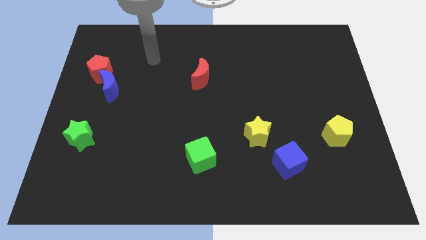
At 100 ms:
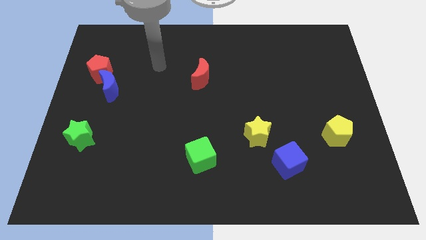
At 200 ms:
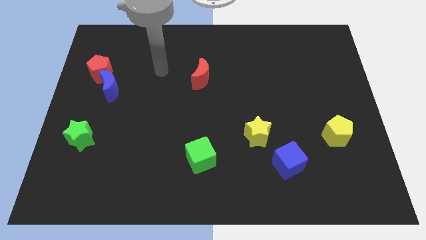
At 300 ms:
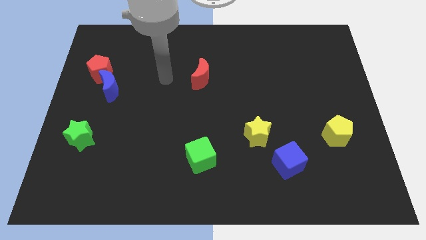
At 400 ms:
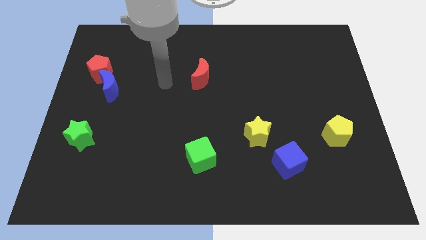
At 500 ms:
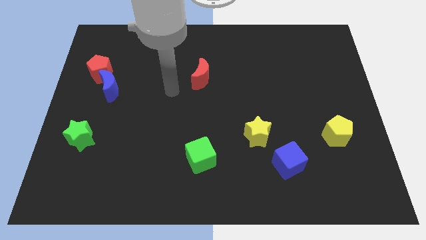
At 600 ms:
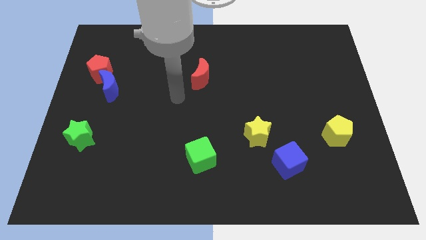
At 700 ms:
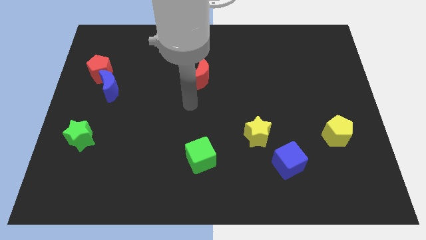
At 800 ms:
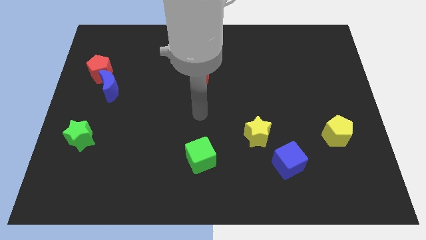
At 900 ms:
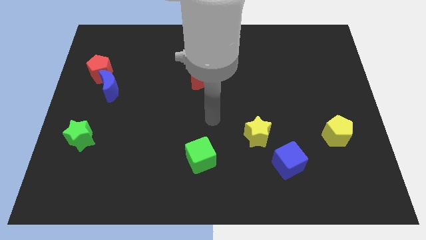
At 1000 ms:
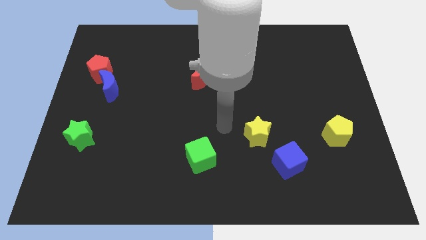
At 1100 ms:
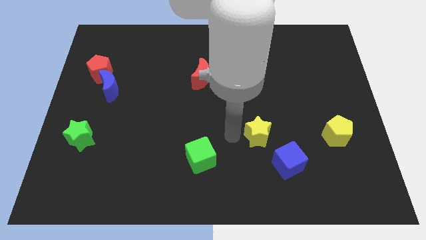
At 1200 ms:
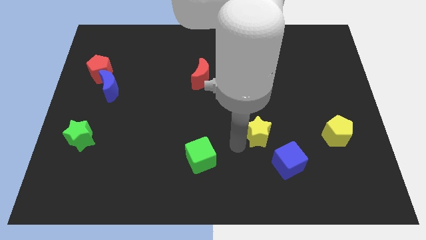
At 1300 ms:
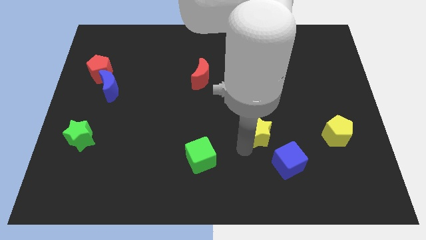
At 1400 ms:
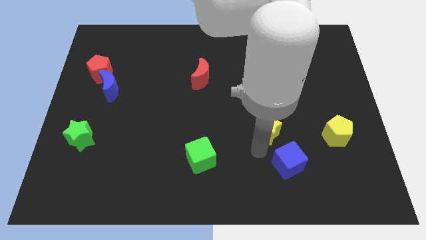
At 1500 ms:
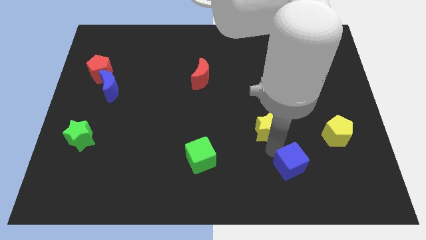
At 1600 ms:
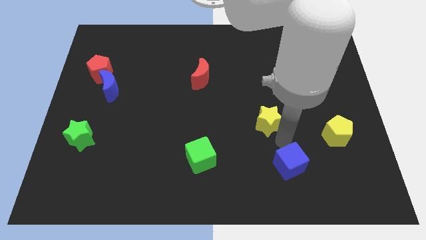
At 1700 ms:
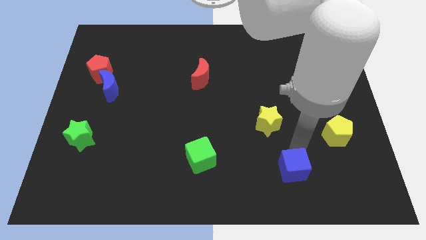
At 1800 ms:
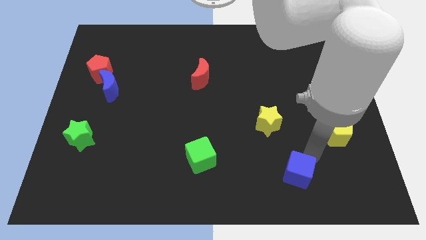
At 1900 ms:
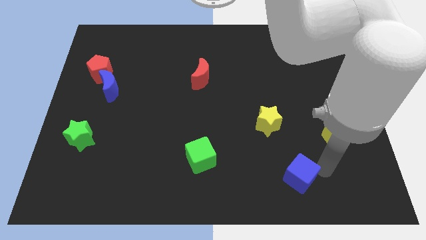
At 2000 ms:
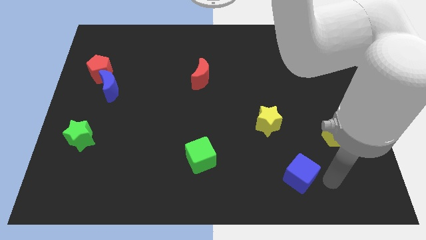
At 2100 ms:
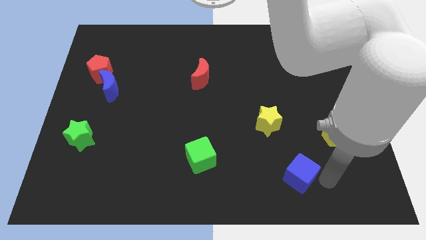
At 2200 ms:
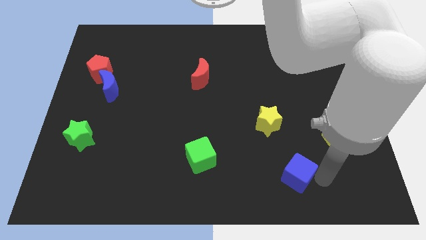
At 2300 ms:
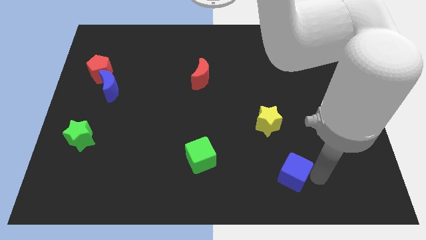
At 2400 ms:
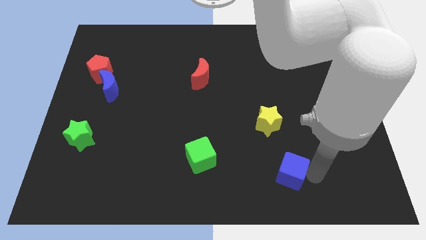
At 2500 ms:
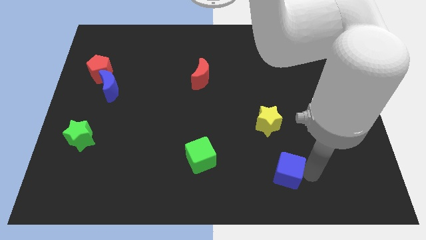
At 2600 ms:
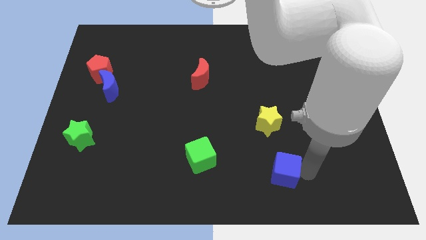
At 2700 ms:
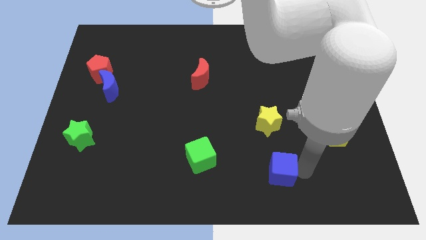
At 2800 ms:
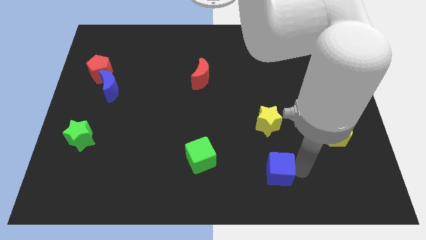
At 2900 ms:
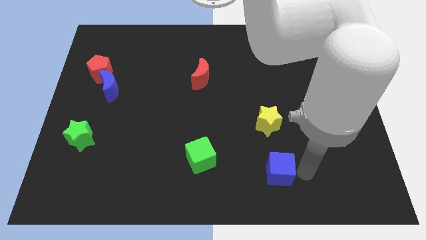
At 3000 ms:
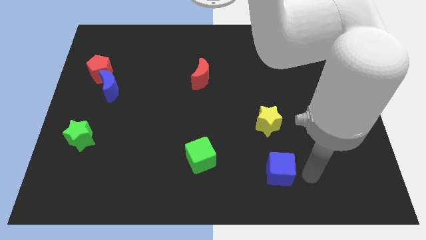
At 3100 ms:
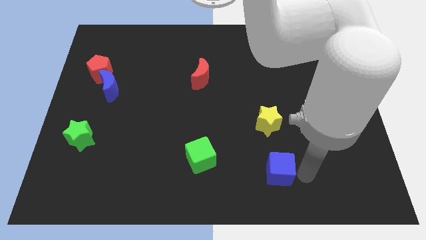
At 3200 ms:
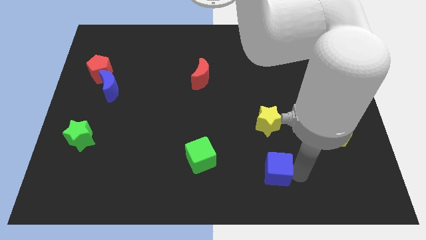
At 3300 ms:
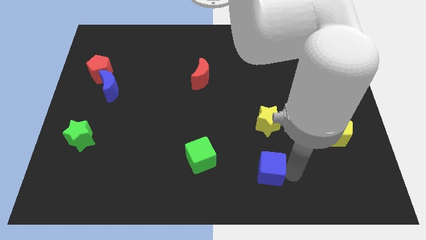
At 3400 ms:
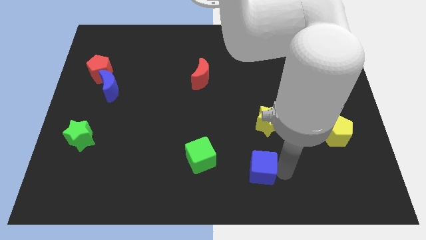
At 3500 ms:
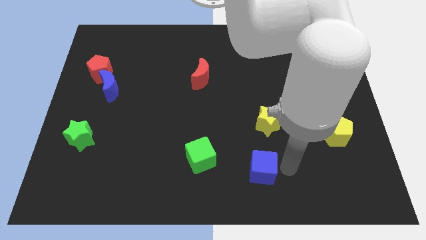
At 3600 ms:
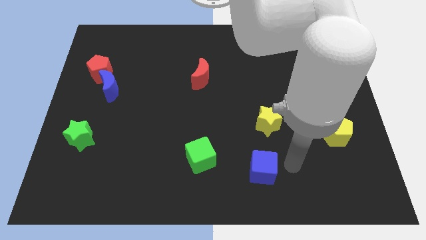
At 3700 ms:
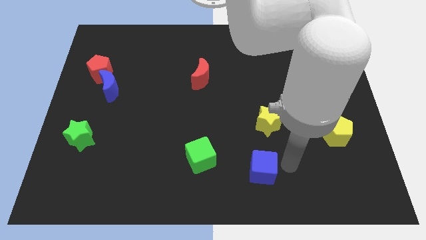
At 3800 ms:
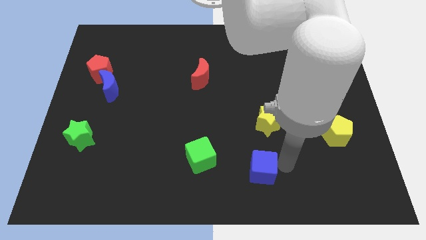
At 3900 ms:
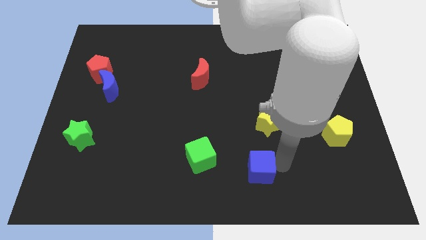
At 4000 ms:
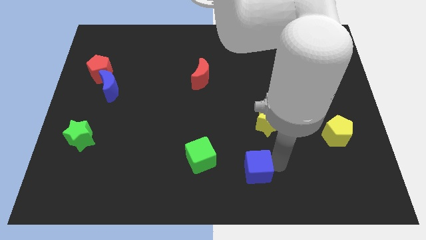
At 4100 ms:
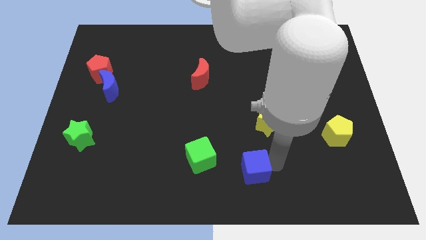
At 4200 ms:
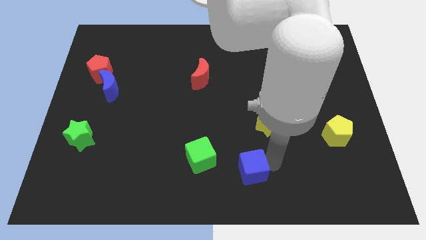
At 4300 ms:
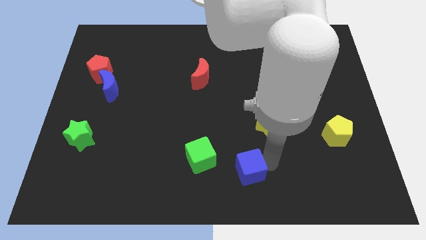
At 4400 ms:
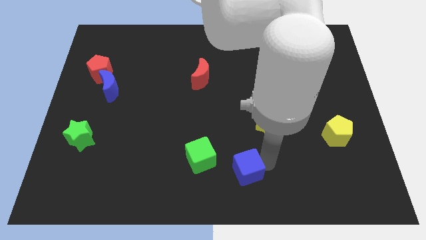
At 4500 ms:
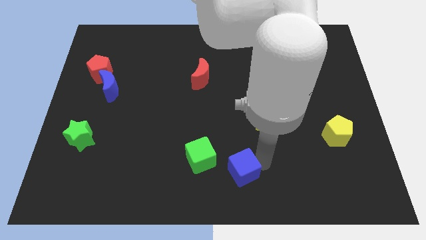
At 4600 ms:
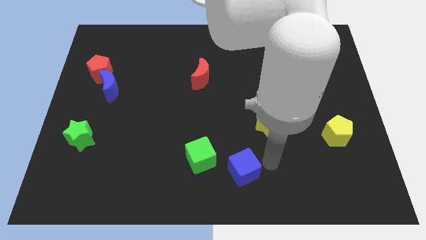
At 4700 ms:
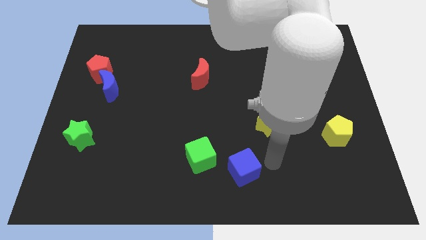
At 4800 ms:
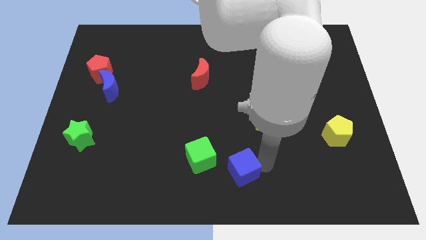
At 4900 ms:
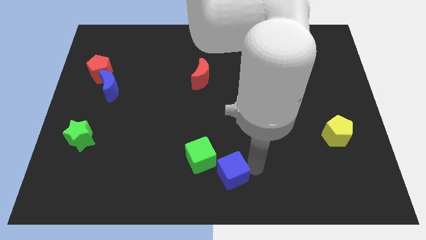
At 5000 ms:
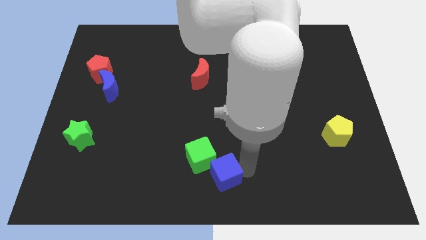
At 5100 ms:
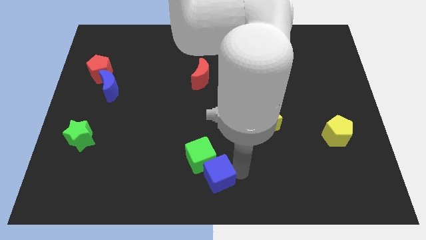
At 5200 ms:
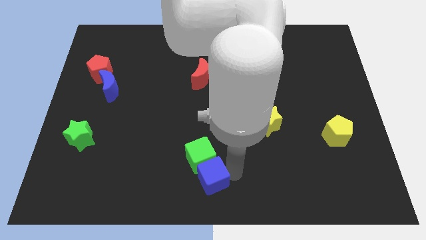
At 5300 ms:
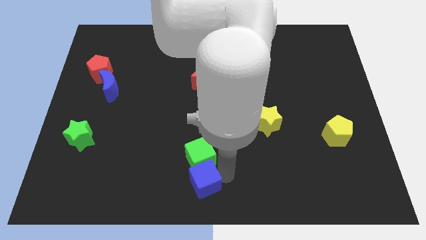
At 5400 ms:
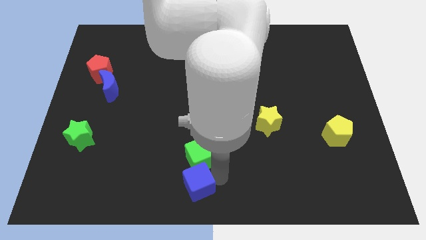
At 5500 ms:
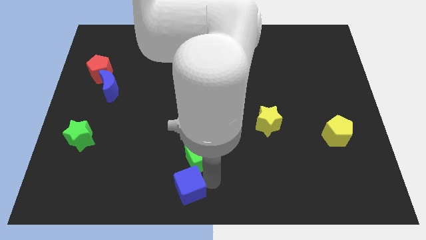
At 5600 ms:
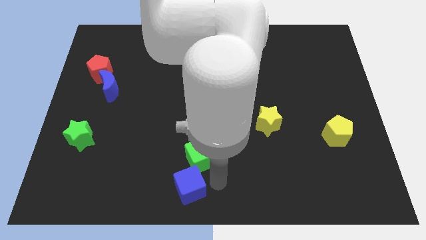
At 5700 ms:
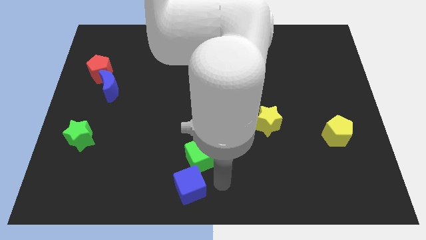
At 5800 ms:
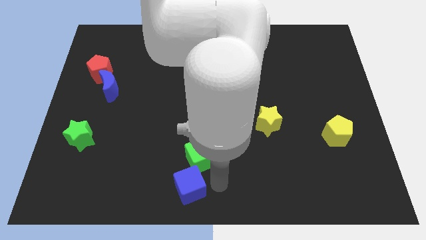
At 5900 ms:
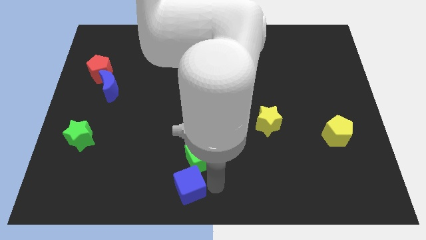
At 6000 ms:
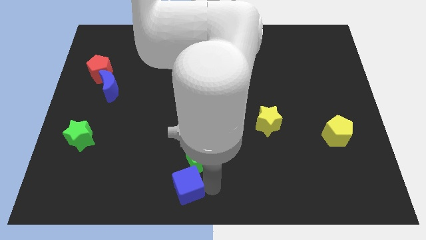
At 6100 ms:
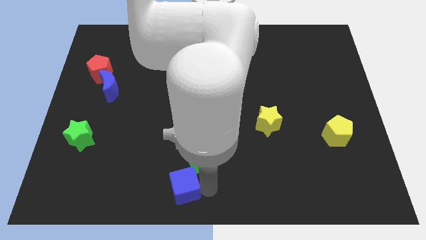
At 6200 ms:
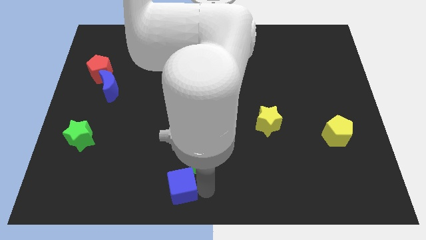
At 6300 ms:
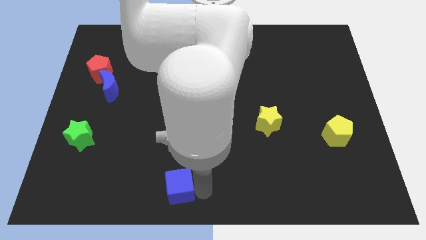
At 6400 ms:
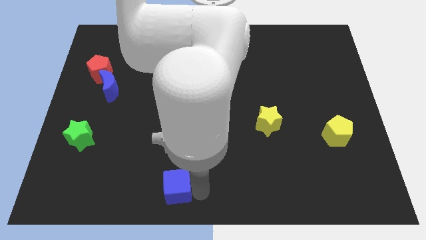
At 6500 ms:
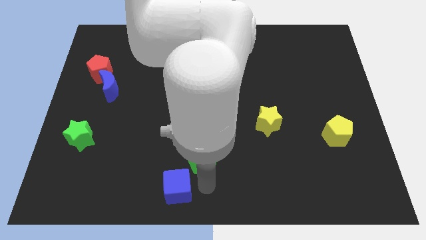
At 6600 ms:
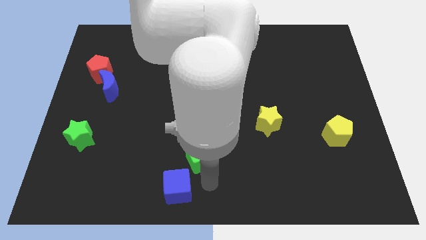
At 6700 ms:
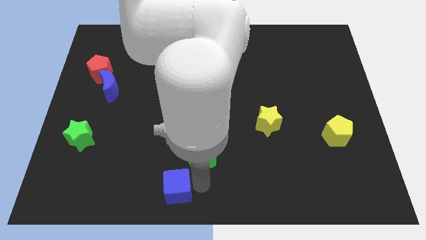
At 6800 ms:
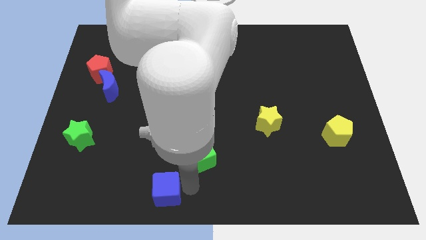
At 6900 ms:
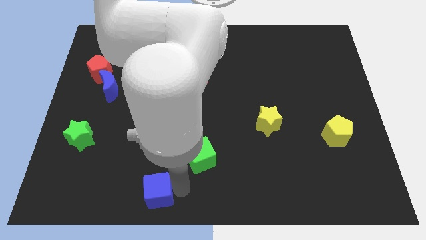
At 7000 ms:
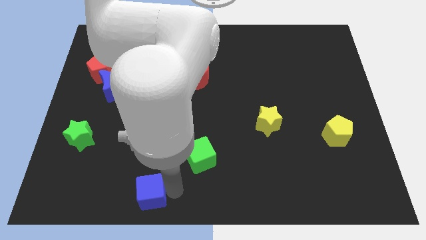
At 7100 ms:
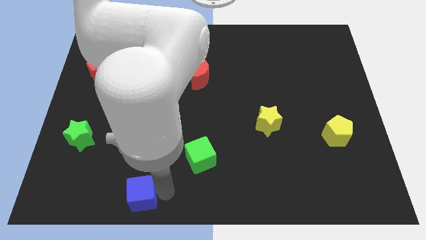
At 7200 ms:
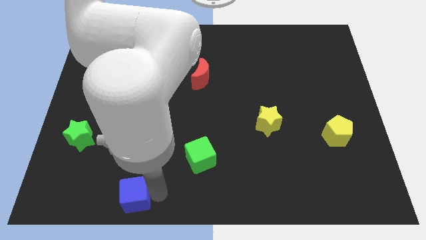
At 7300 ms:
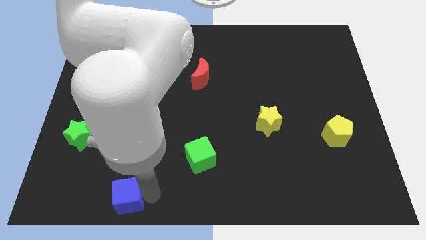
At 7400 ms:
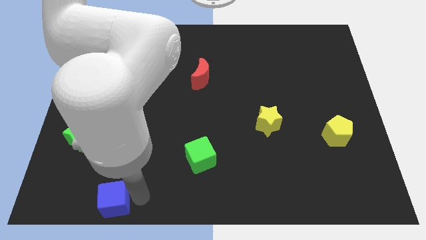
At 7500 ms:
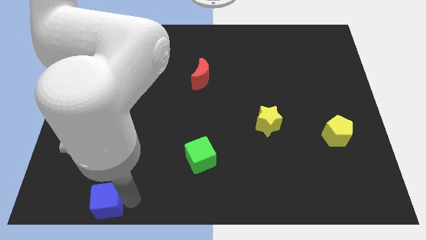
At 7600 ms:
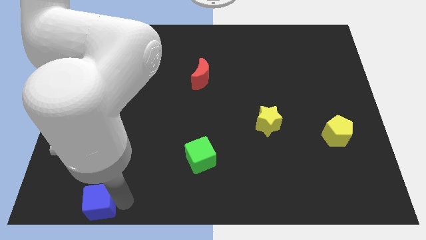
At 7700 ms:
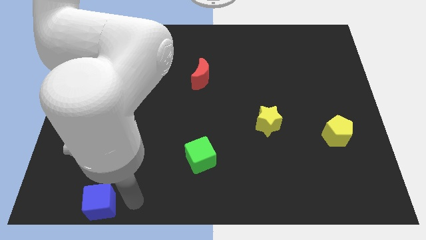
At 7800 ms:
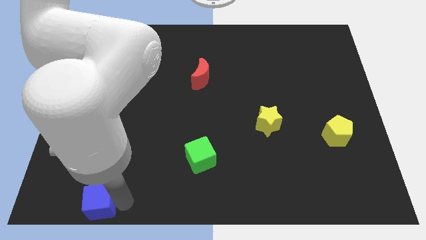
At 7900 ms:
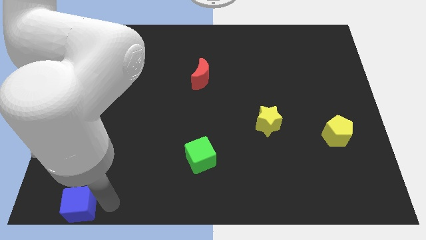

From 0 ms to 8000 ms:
push the blue cube to the bottom left
